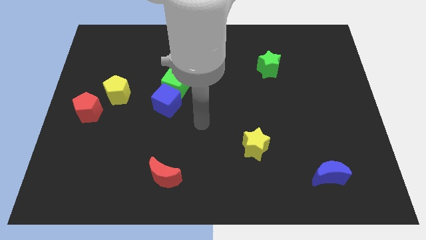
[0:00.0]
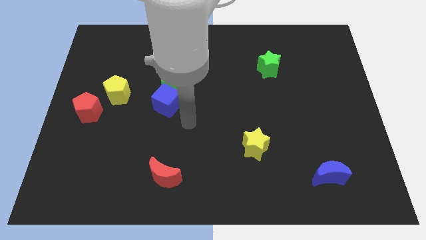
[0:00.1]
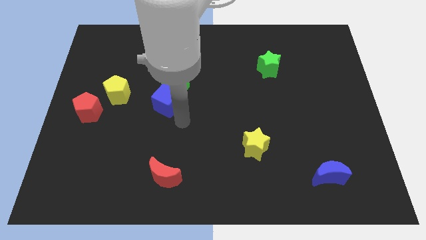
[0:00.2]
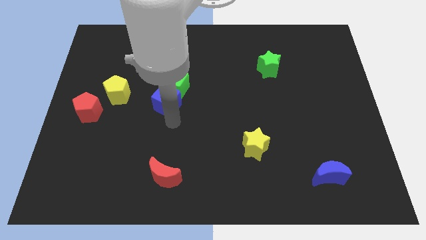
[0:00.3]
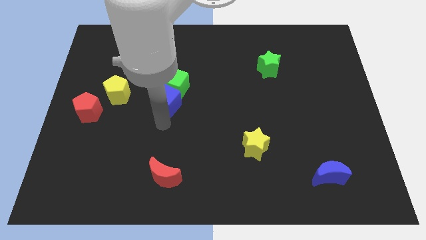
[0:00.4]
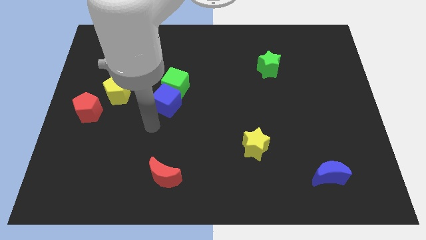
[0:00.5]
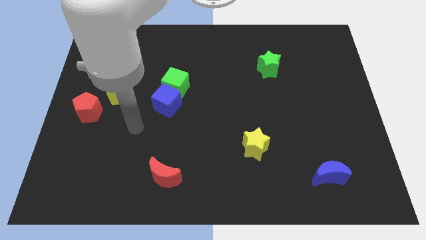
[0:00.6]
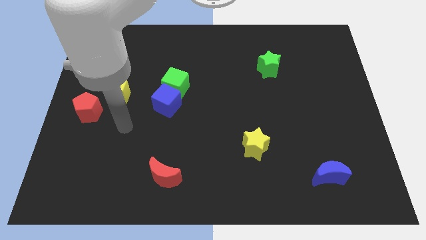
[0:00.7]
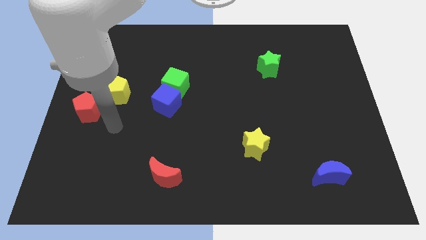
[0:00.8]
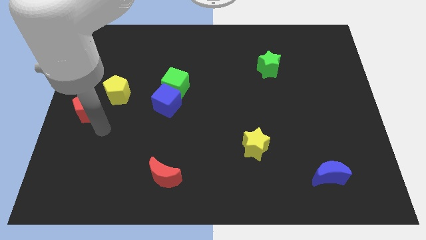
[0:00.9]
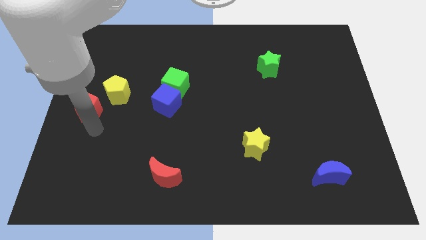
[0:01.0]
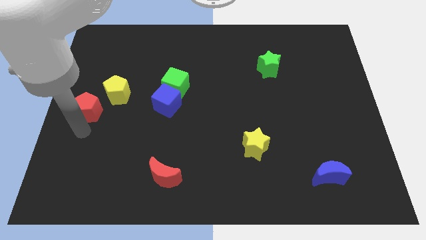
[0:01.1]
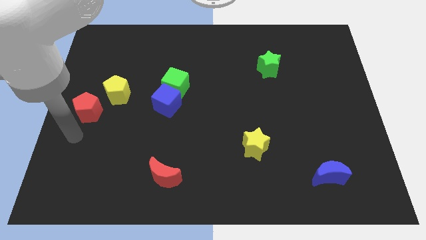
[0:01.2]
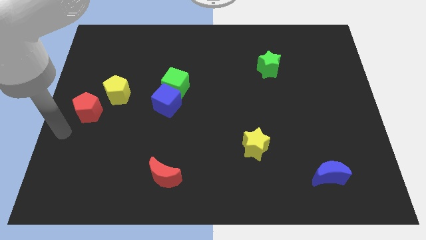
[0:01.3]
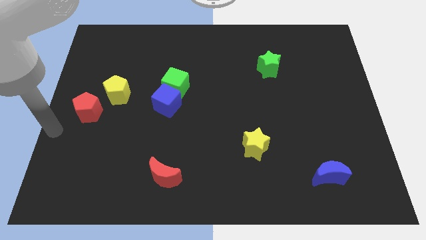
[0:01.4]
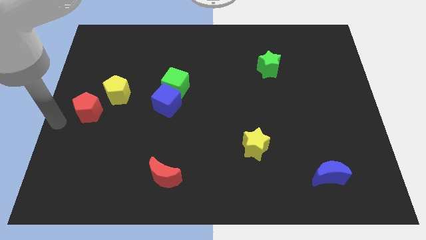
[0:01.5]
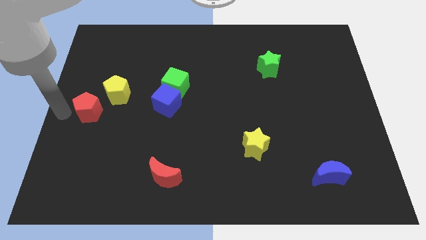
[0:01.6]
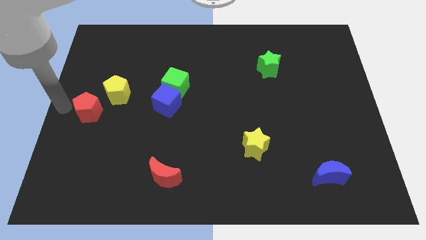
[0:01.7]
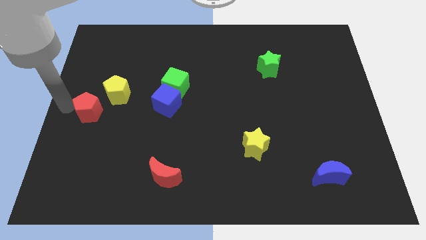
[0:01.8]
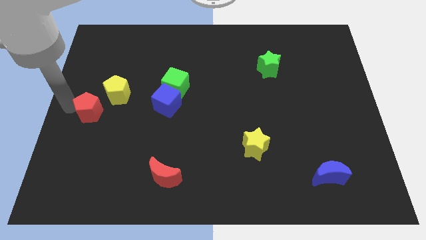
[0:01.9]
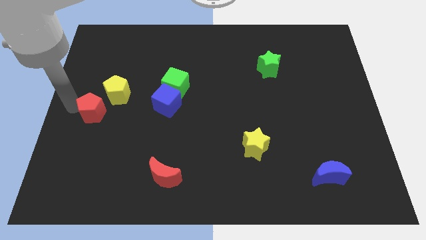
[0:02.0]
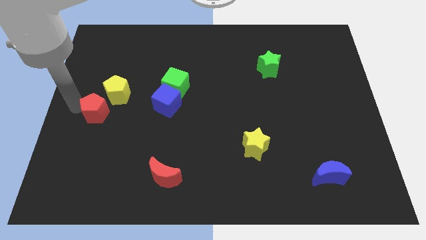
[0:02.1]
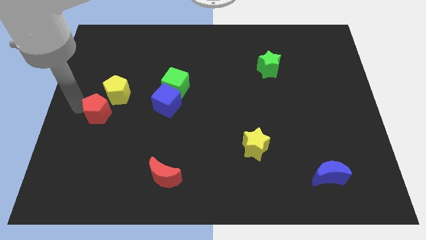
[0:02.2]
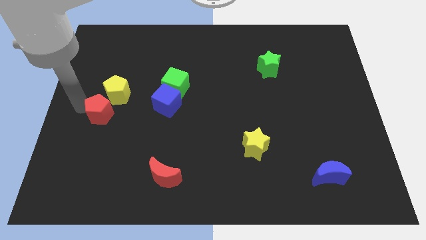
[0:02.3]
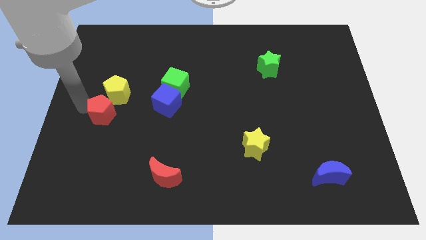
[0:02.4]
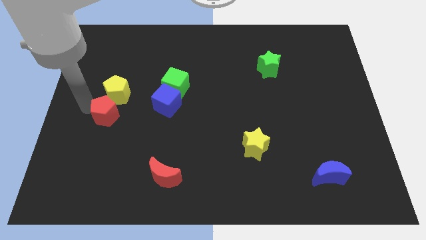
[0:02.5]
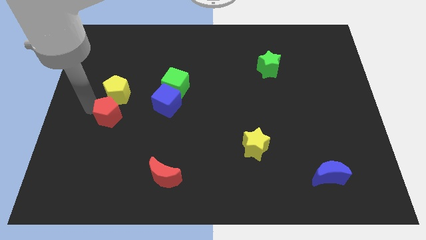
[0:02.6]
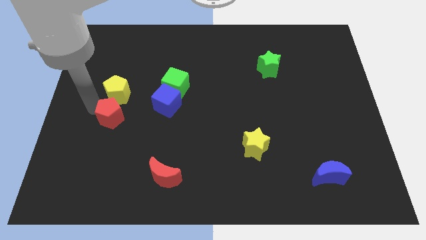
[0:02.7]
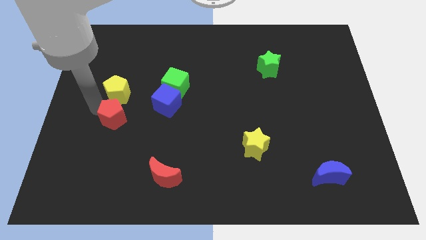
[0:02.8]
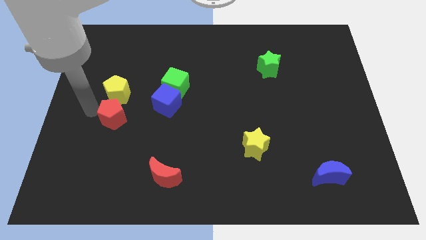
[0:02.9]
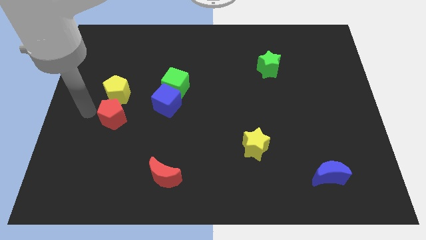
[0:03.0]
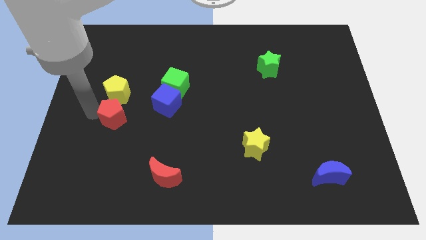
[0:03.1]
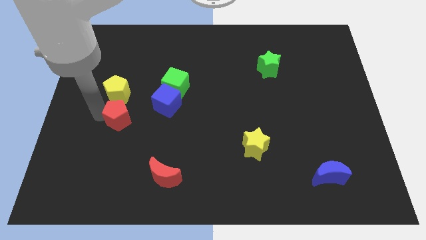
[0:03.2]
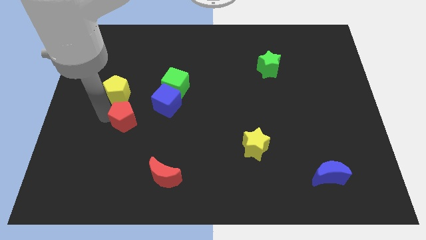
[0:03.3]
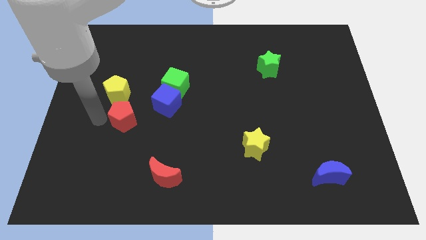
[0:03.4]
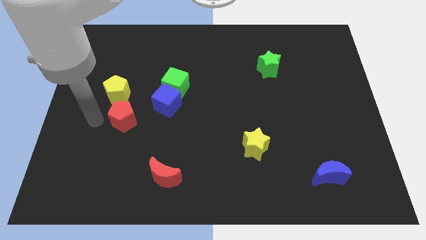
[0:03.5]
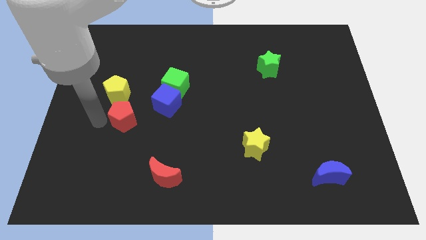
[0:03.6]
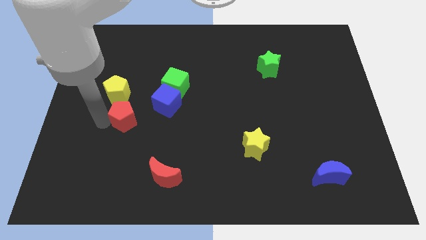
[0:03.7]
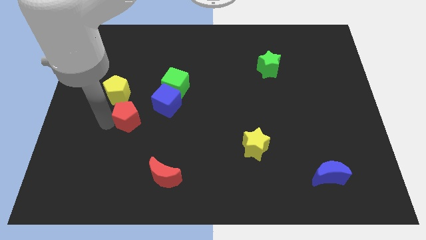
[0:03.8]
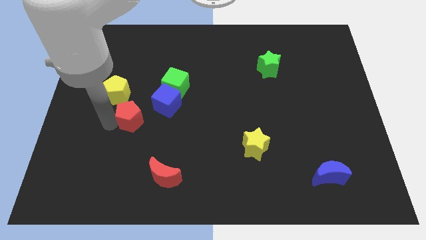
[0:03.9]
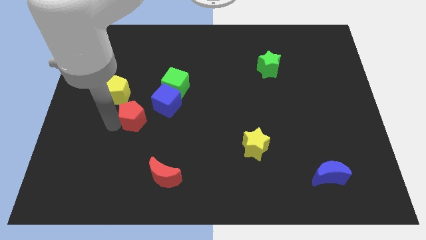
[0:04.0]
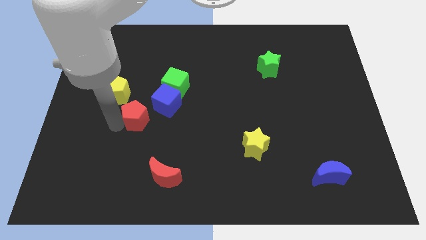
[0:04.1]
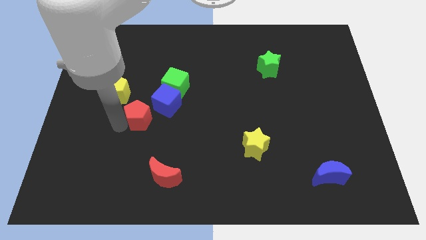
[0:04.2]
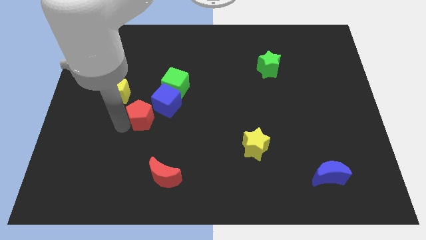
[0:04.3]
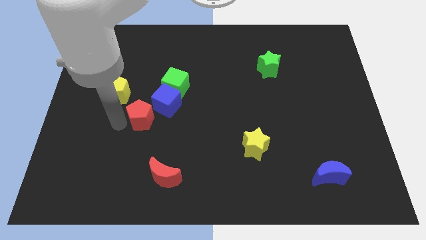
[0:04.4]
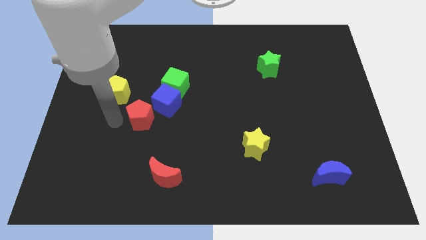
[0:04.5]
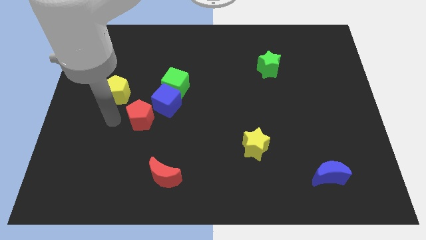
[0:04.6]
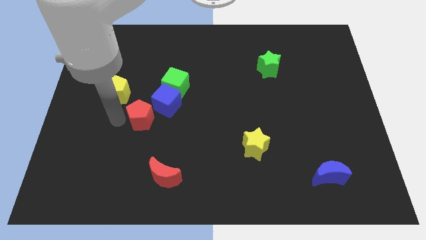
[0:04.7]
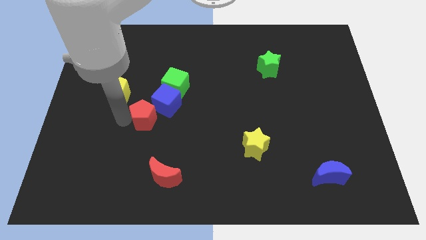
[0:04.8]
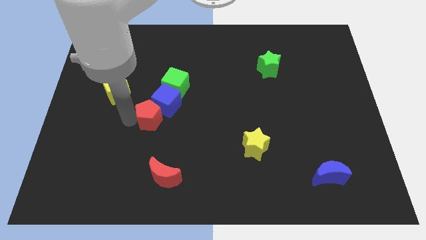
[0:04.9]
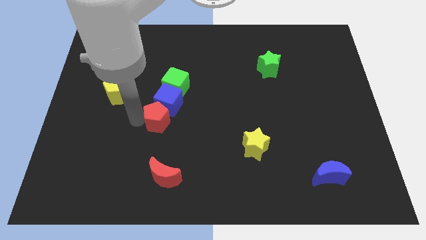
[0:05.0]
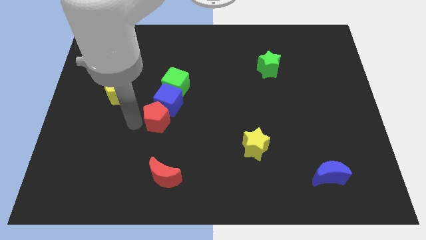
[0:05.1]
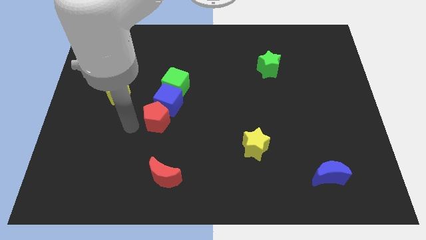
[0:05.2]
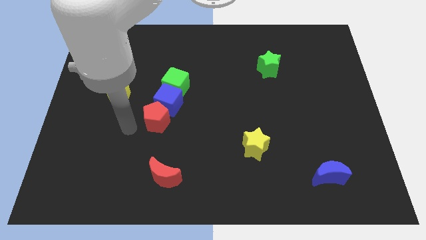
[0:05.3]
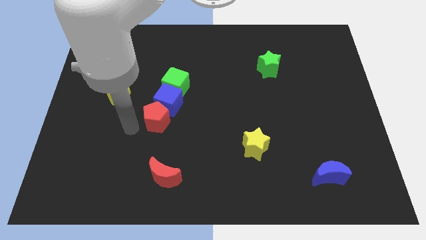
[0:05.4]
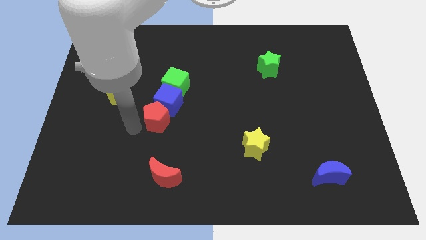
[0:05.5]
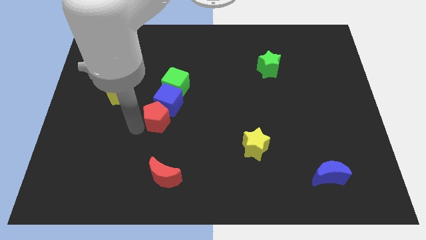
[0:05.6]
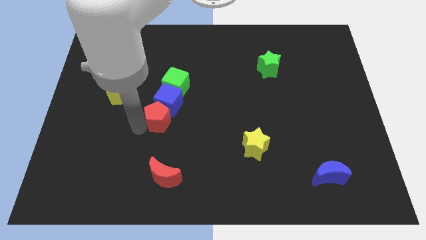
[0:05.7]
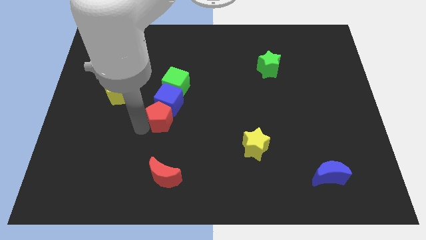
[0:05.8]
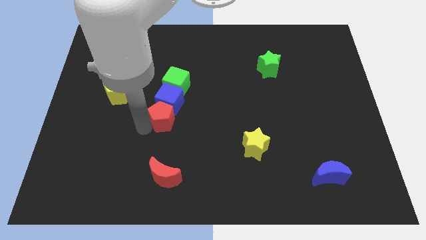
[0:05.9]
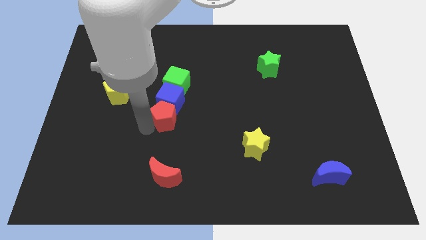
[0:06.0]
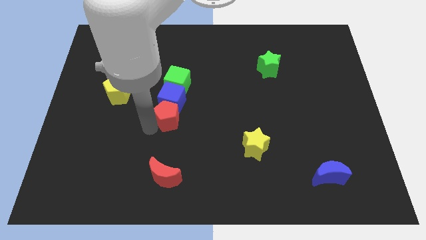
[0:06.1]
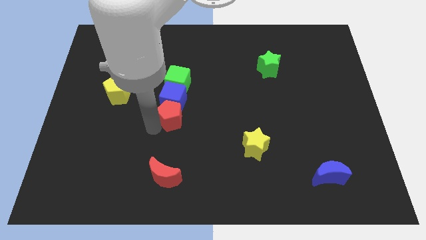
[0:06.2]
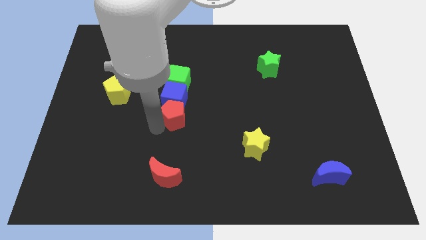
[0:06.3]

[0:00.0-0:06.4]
slide the red pentagon right

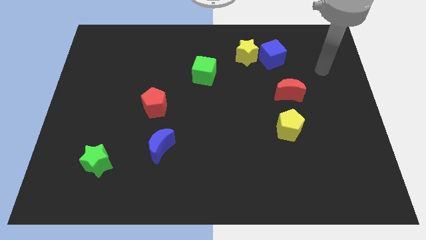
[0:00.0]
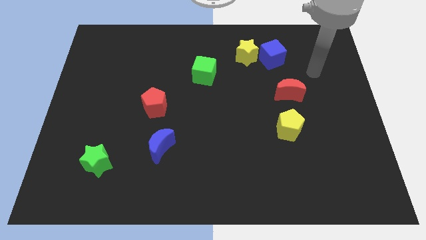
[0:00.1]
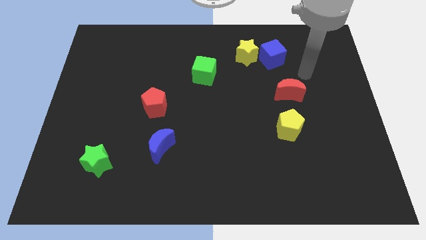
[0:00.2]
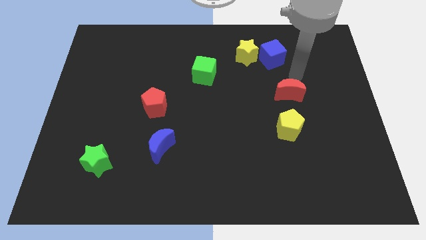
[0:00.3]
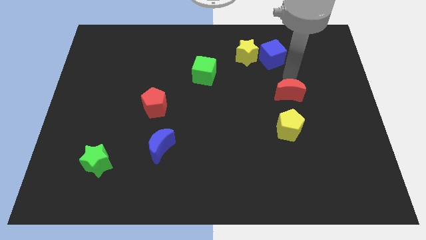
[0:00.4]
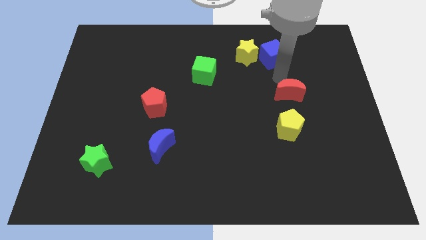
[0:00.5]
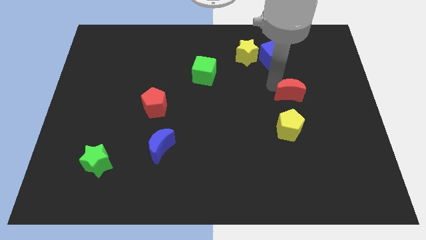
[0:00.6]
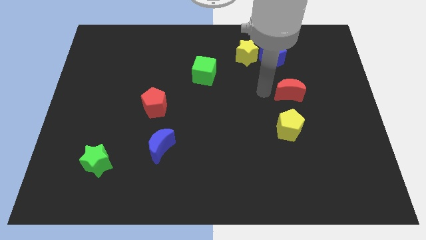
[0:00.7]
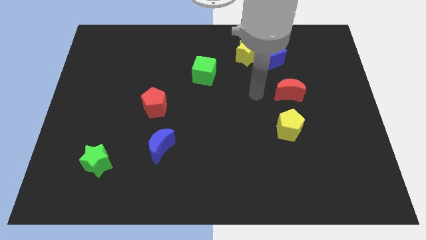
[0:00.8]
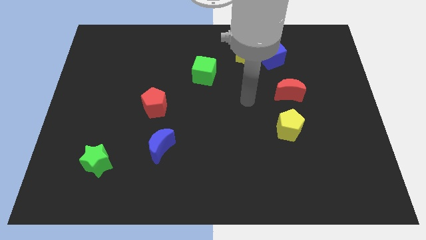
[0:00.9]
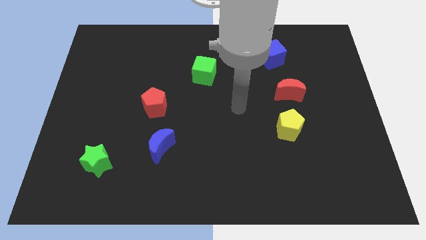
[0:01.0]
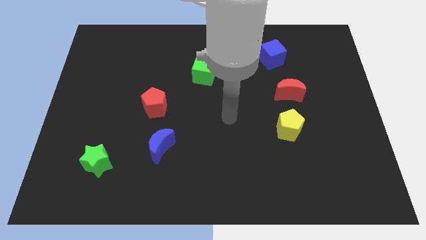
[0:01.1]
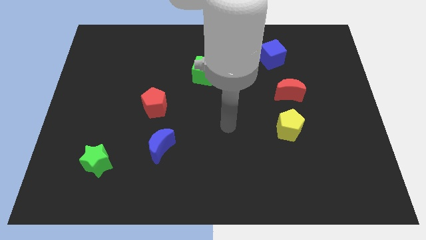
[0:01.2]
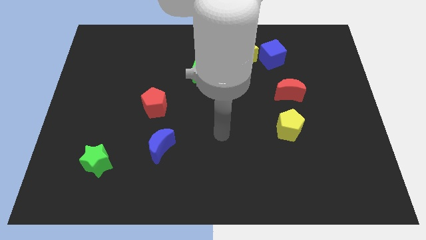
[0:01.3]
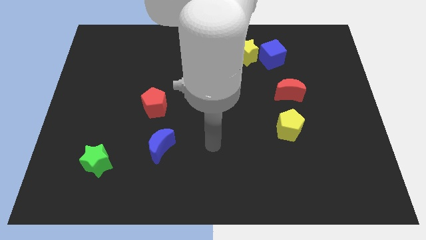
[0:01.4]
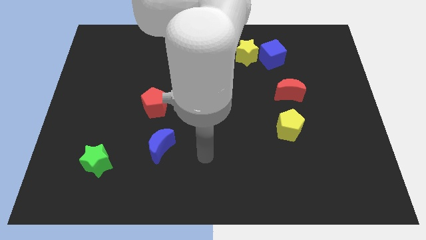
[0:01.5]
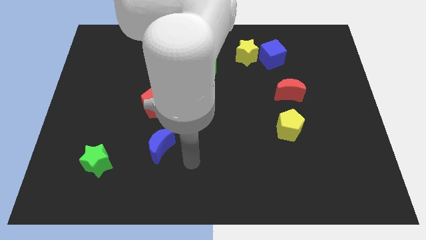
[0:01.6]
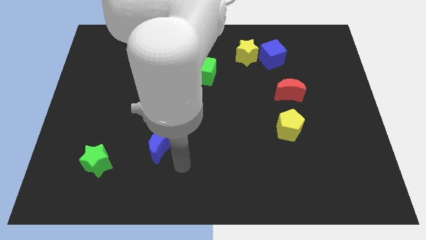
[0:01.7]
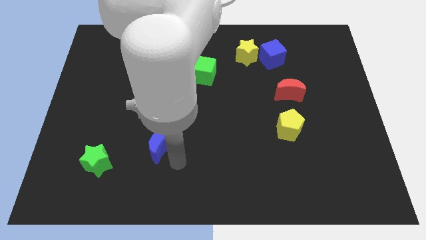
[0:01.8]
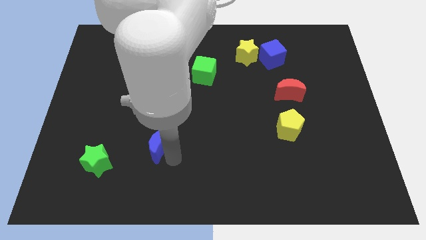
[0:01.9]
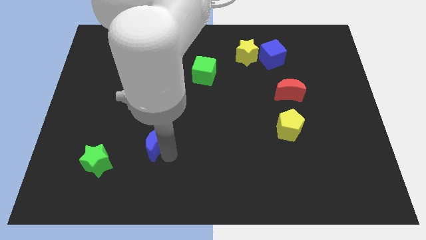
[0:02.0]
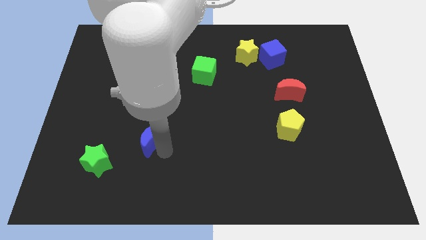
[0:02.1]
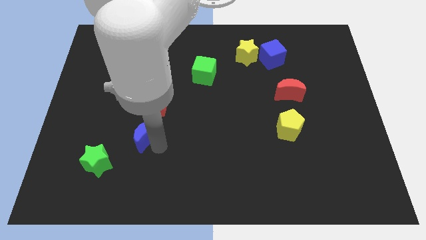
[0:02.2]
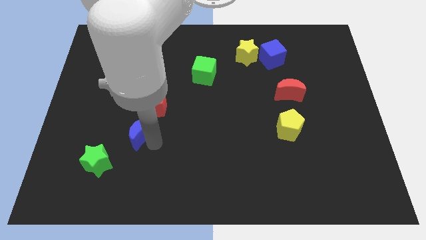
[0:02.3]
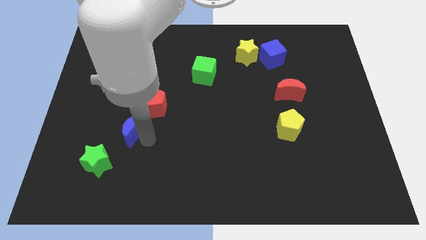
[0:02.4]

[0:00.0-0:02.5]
slightly move the blue moon diagonally upwards and left
